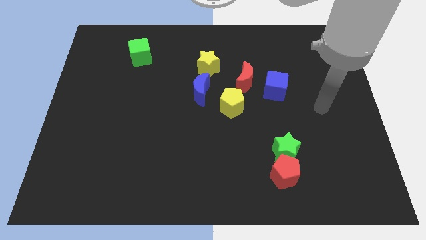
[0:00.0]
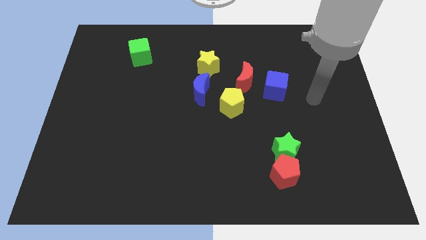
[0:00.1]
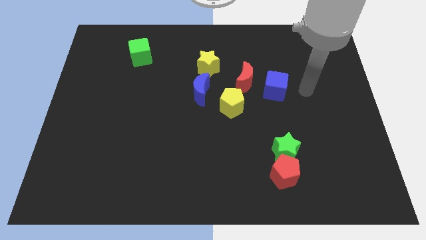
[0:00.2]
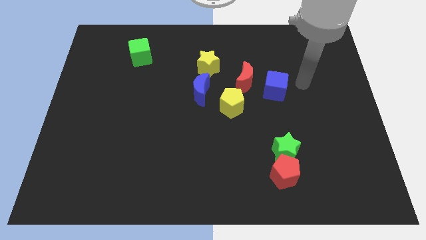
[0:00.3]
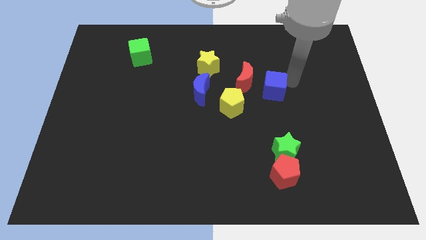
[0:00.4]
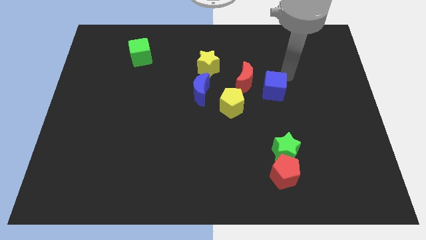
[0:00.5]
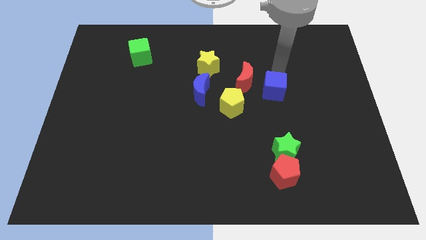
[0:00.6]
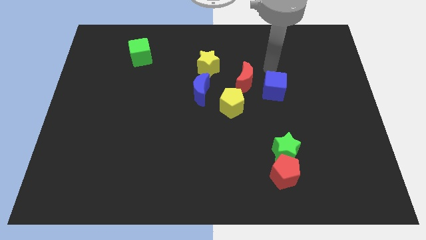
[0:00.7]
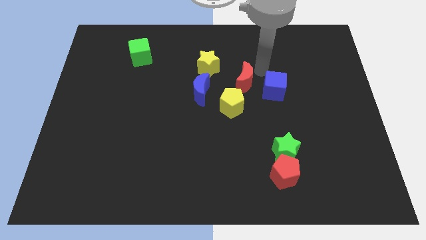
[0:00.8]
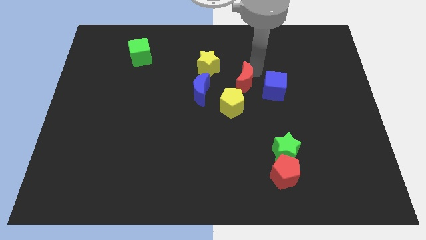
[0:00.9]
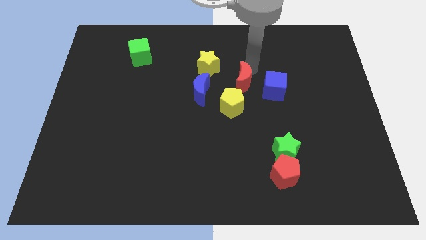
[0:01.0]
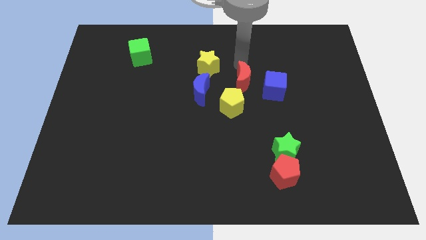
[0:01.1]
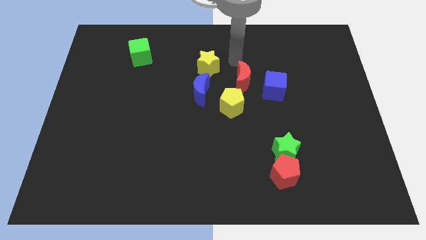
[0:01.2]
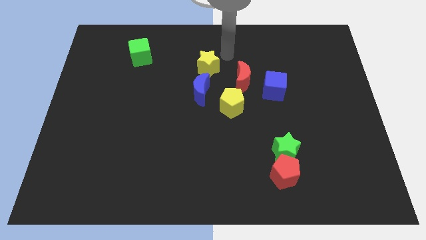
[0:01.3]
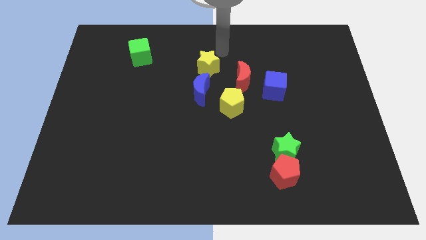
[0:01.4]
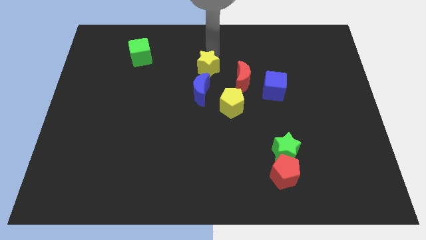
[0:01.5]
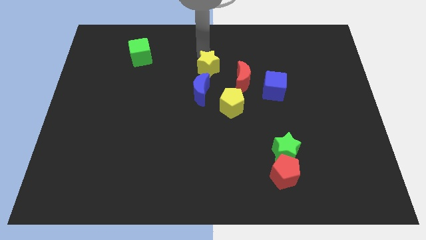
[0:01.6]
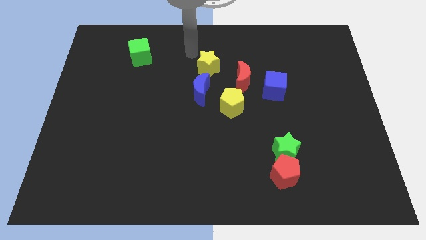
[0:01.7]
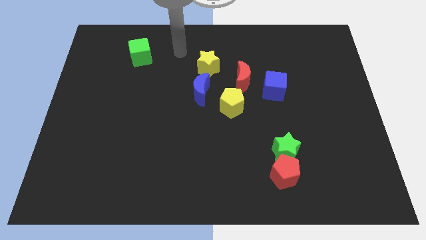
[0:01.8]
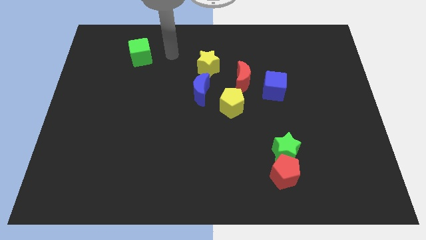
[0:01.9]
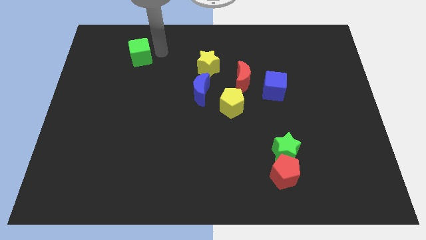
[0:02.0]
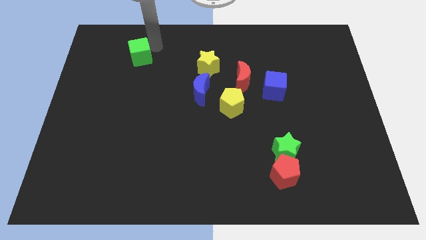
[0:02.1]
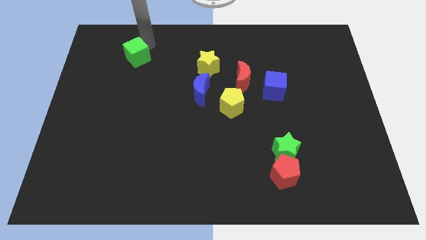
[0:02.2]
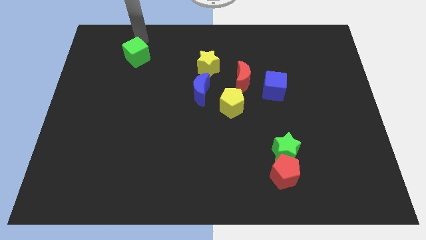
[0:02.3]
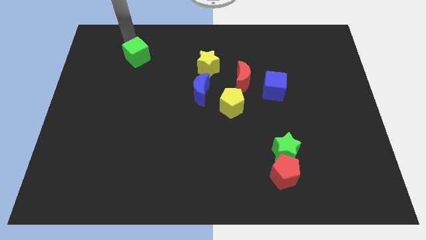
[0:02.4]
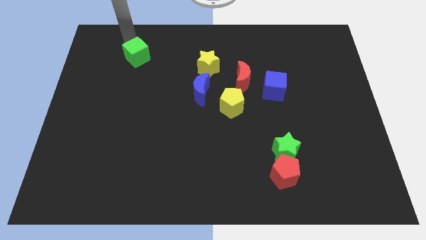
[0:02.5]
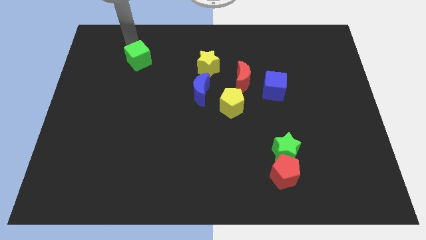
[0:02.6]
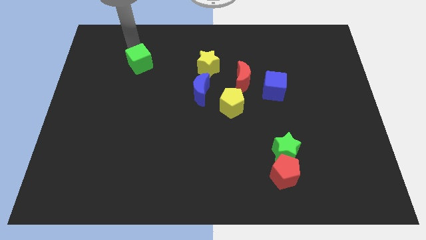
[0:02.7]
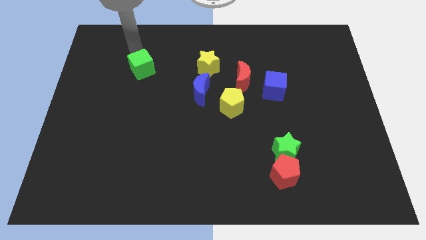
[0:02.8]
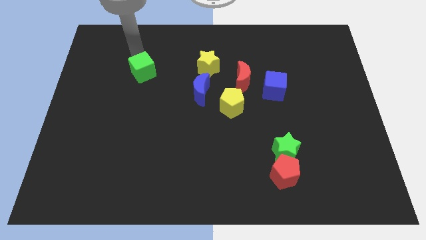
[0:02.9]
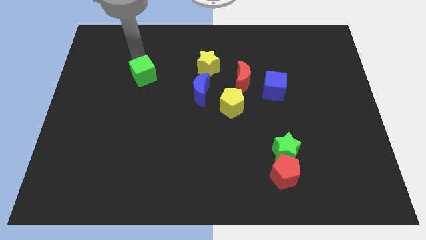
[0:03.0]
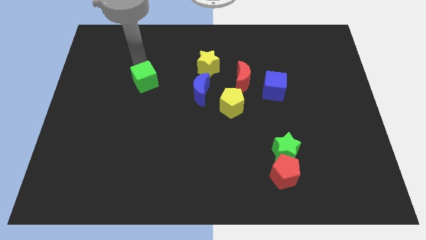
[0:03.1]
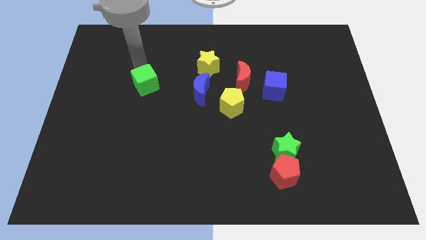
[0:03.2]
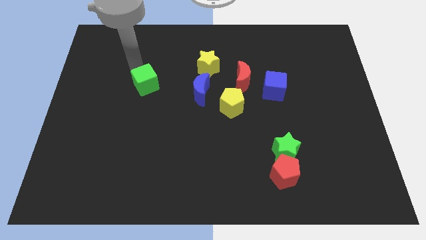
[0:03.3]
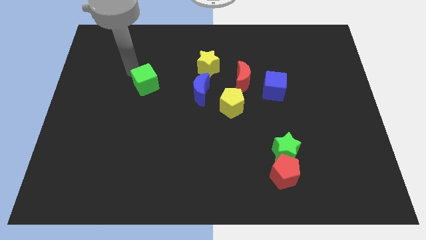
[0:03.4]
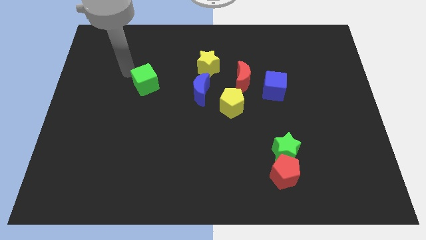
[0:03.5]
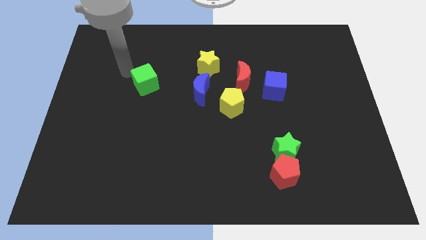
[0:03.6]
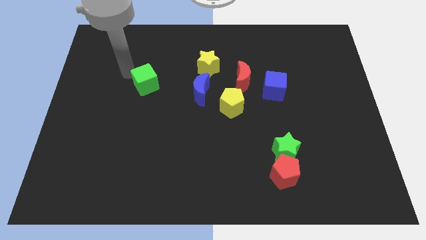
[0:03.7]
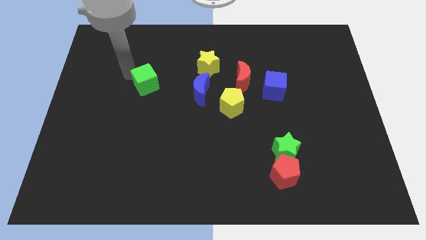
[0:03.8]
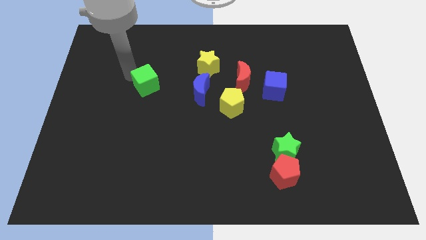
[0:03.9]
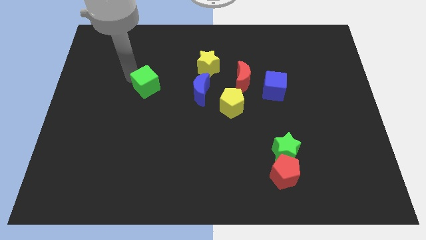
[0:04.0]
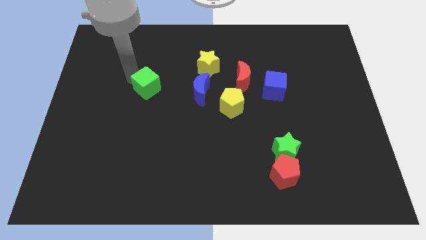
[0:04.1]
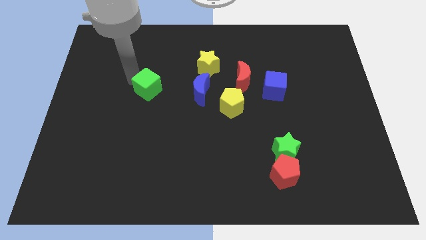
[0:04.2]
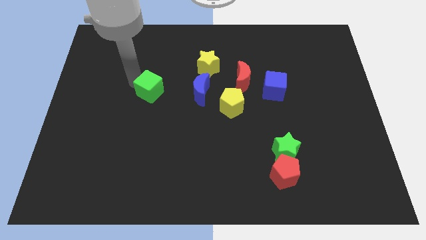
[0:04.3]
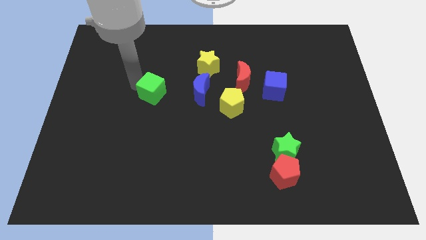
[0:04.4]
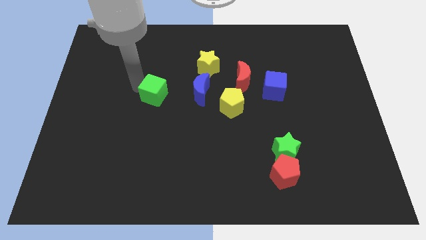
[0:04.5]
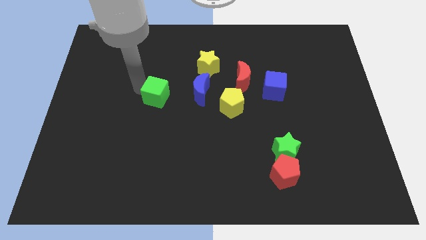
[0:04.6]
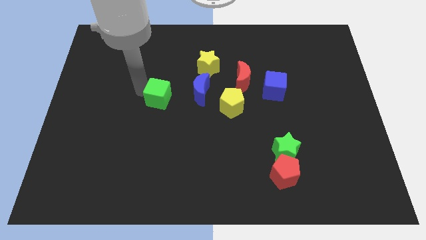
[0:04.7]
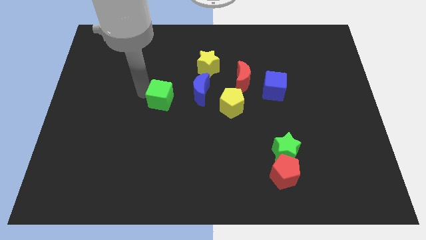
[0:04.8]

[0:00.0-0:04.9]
slide the green cube to the center of the board

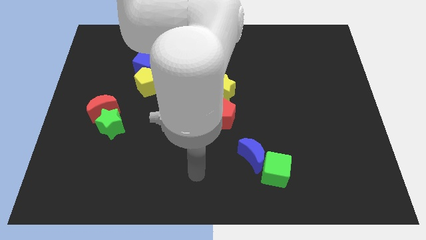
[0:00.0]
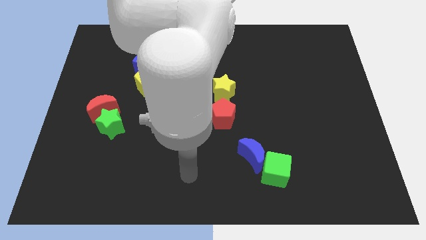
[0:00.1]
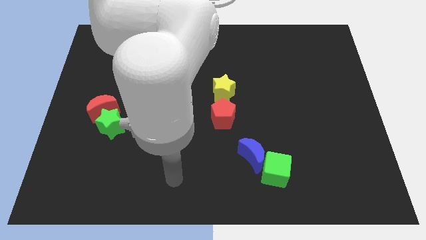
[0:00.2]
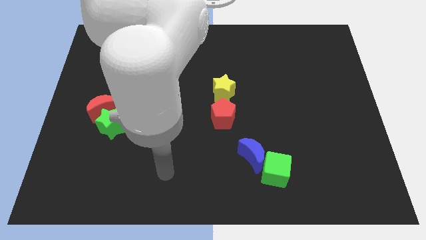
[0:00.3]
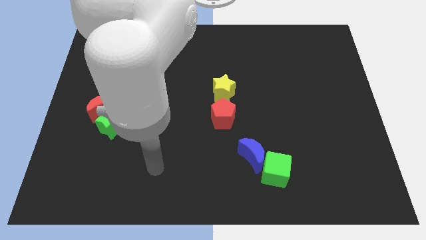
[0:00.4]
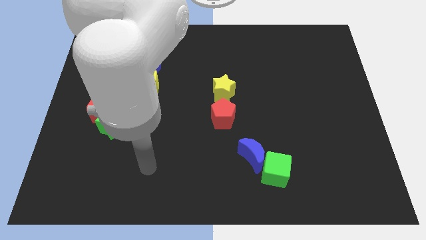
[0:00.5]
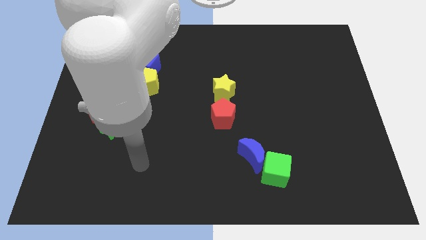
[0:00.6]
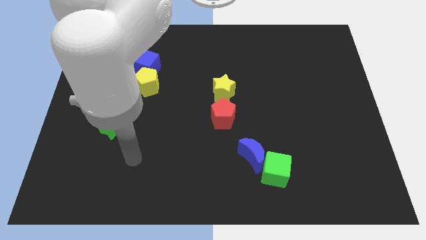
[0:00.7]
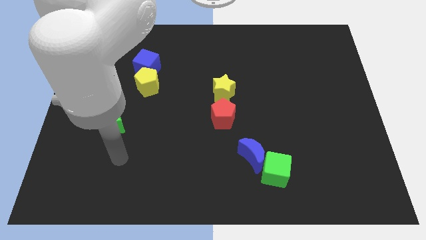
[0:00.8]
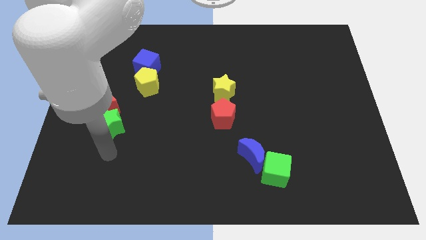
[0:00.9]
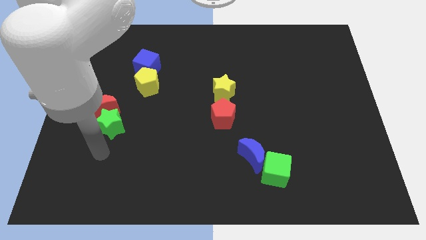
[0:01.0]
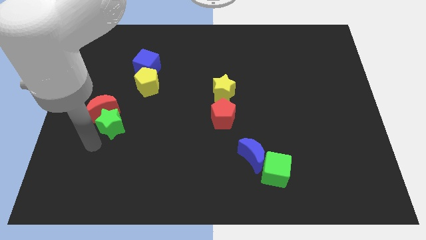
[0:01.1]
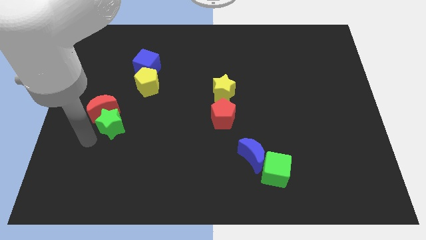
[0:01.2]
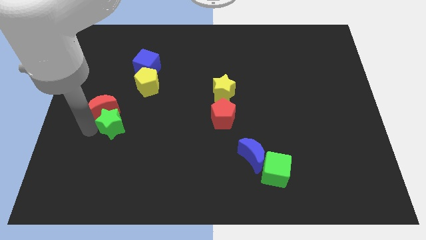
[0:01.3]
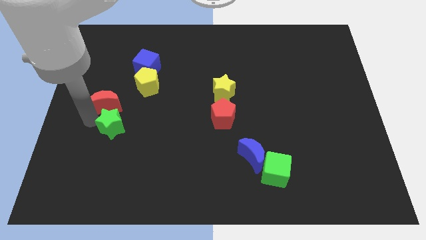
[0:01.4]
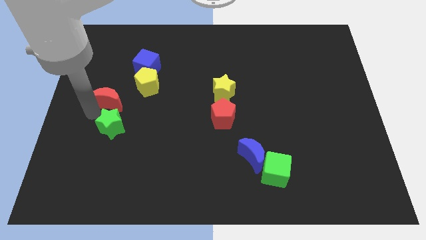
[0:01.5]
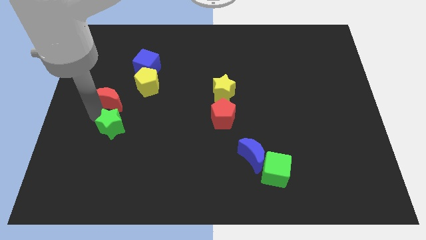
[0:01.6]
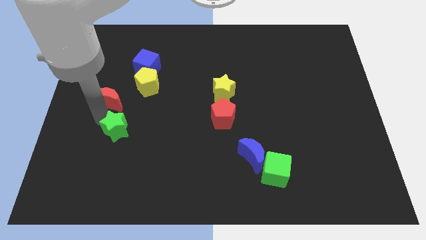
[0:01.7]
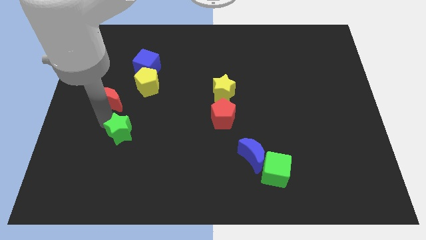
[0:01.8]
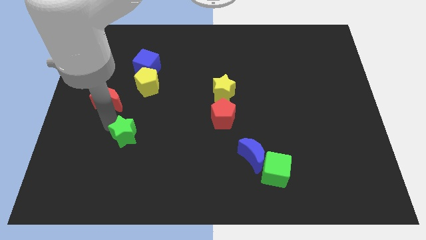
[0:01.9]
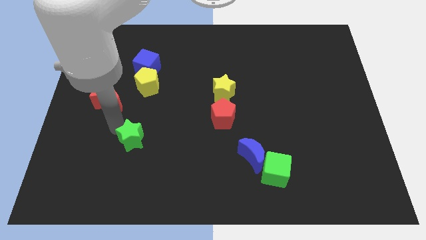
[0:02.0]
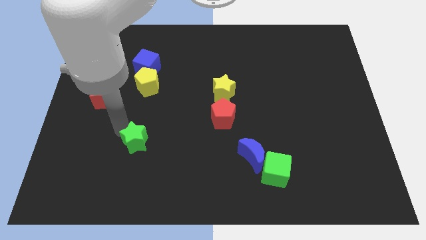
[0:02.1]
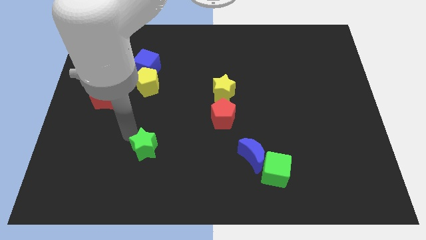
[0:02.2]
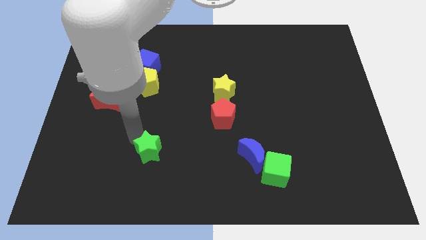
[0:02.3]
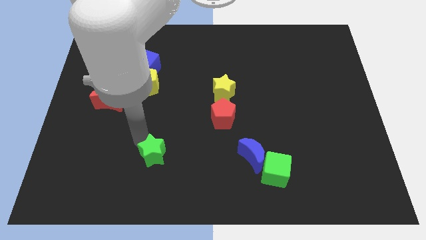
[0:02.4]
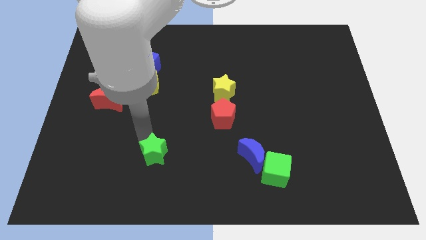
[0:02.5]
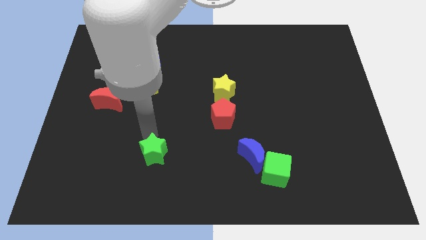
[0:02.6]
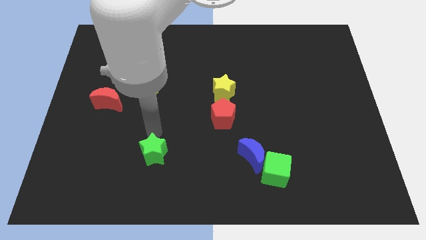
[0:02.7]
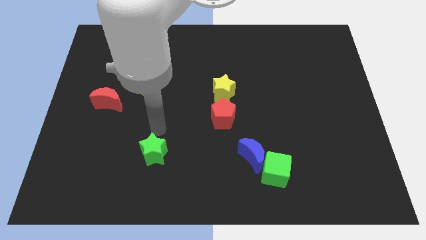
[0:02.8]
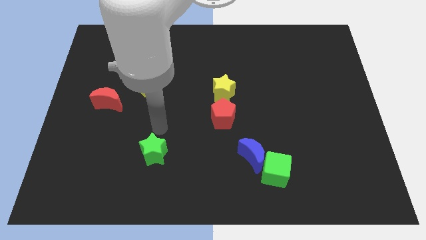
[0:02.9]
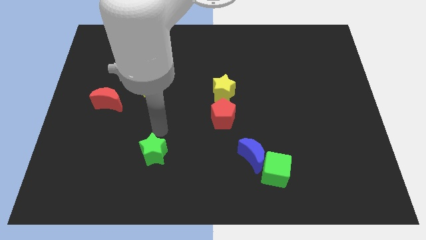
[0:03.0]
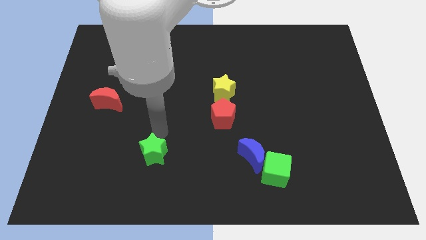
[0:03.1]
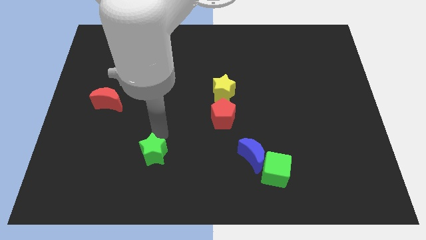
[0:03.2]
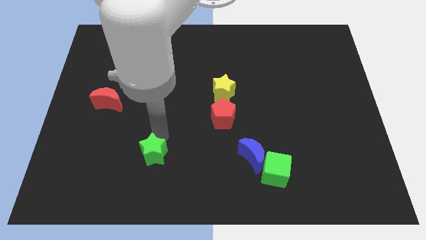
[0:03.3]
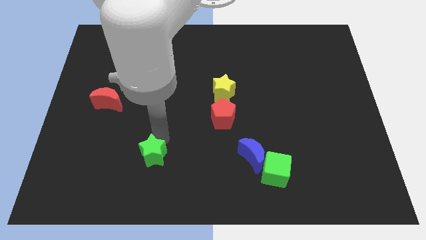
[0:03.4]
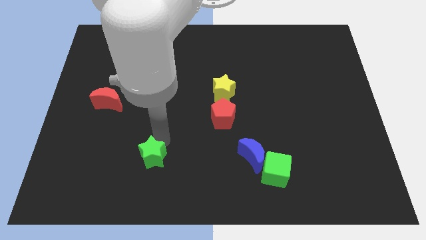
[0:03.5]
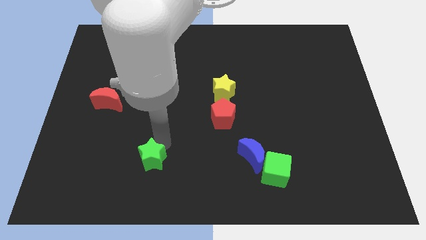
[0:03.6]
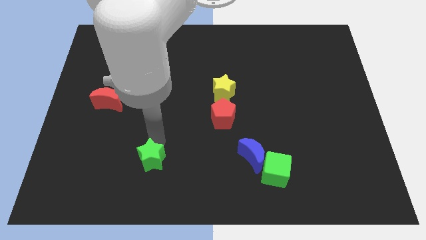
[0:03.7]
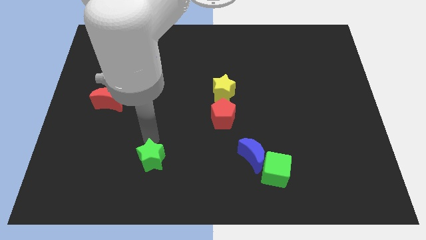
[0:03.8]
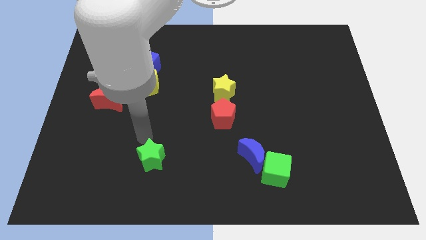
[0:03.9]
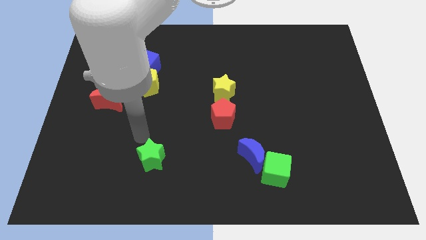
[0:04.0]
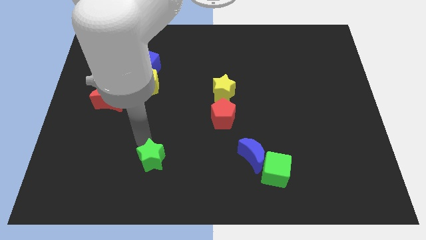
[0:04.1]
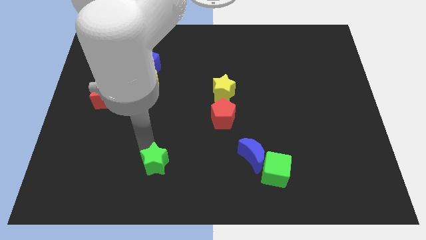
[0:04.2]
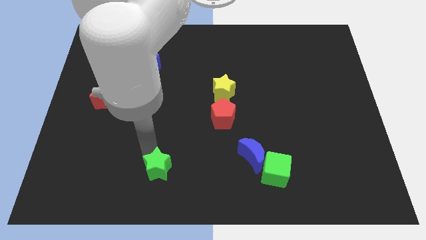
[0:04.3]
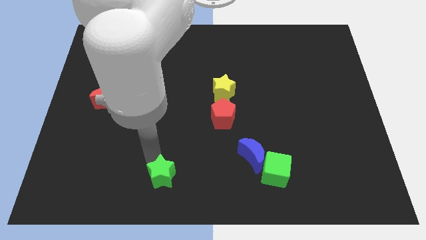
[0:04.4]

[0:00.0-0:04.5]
put the green star to the bottom side
